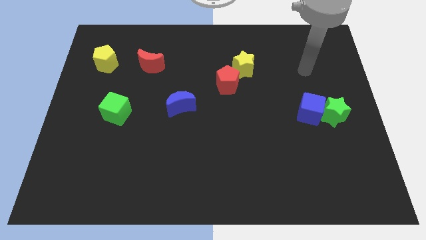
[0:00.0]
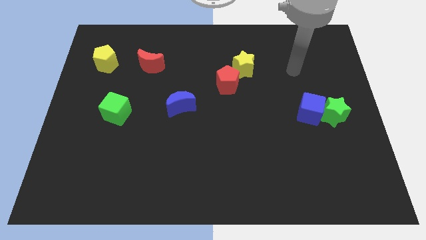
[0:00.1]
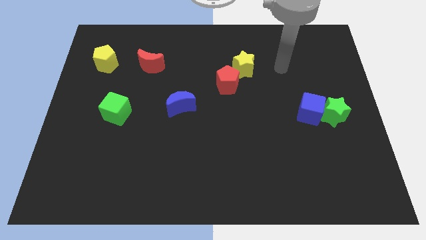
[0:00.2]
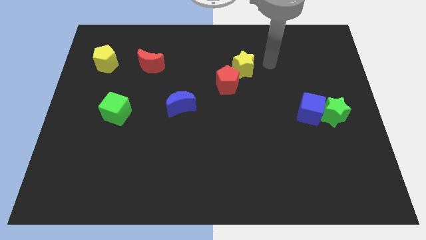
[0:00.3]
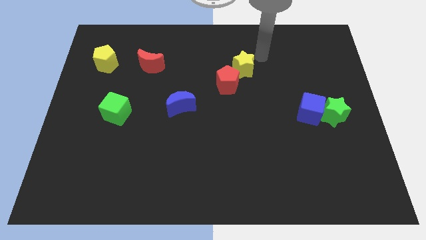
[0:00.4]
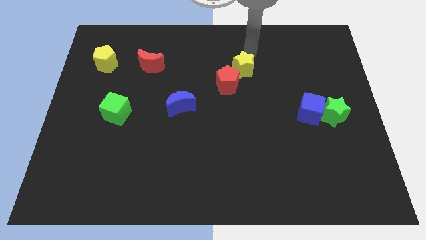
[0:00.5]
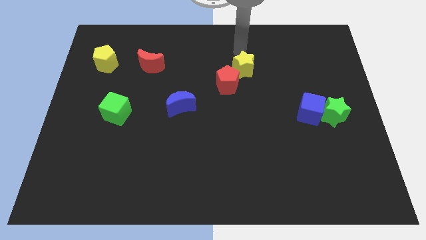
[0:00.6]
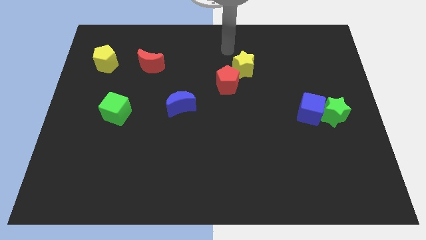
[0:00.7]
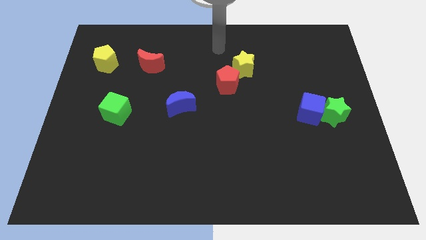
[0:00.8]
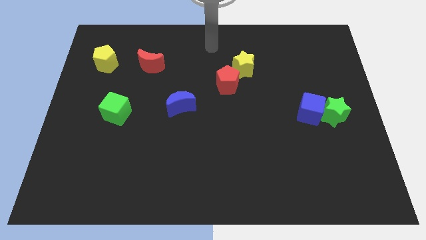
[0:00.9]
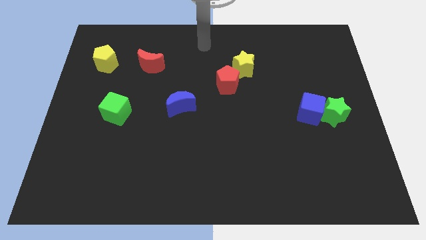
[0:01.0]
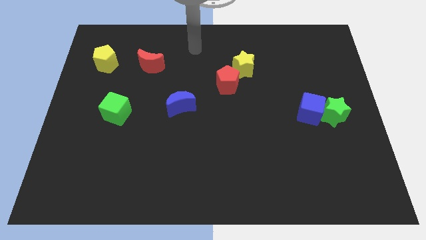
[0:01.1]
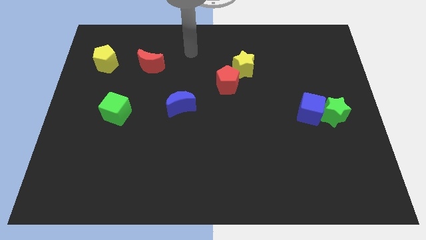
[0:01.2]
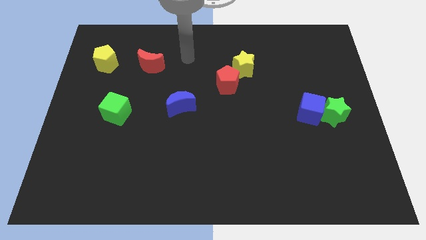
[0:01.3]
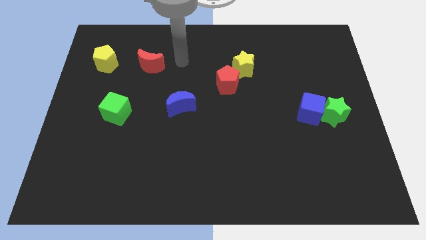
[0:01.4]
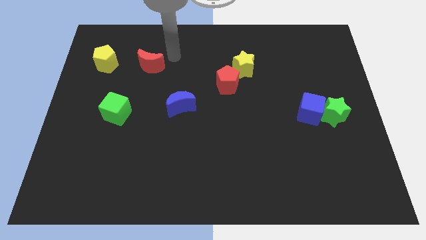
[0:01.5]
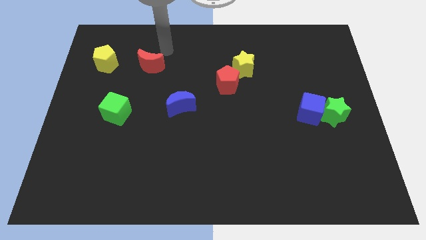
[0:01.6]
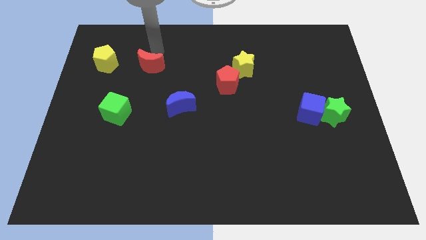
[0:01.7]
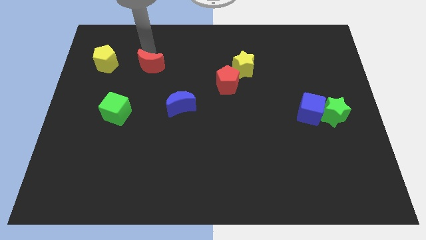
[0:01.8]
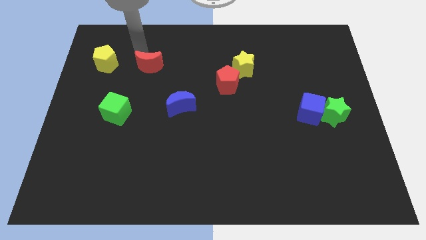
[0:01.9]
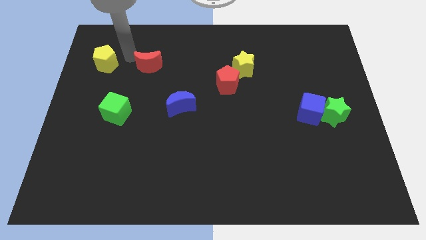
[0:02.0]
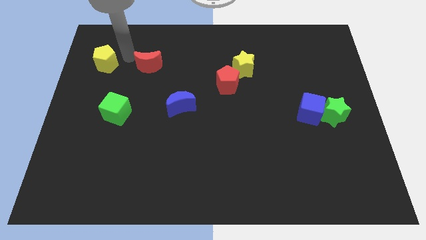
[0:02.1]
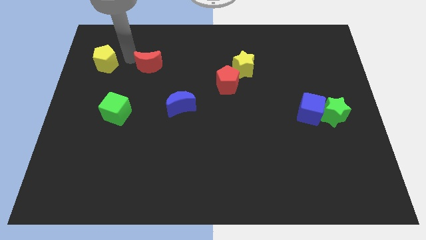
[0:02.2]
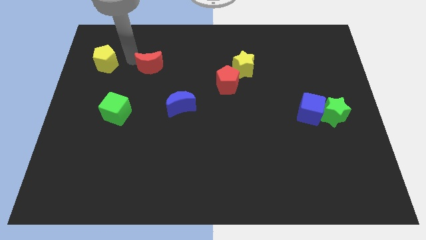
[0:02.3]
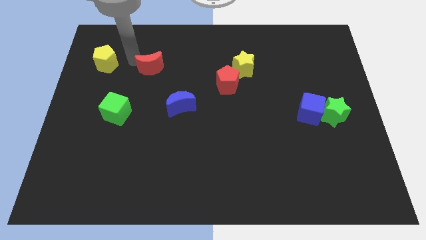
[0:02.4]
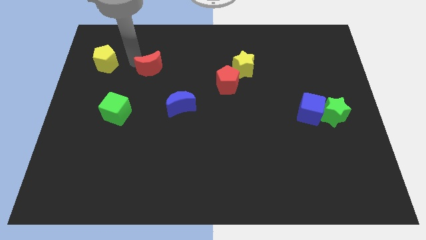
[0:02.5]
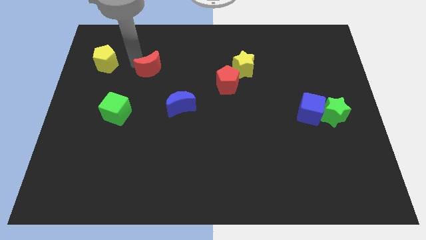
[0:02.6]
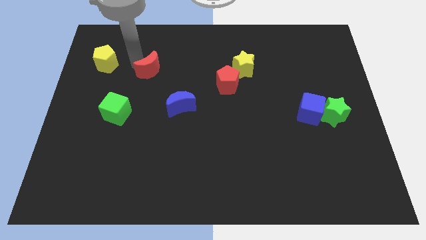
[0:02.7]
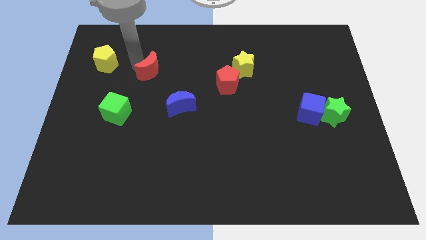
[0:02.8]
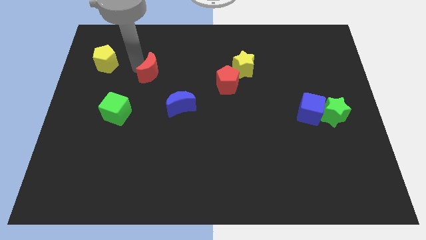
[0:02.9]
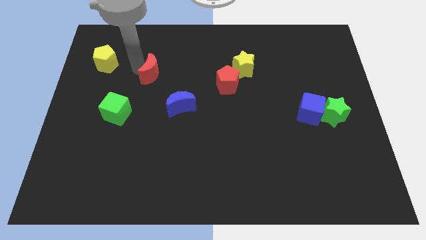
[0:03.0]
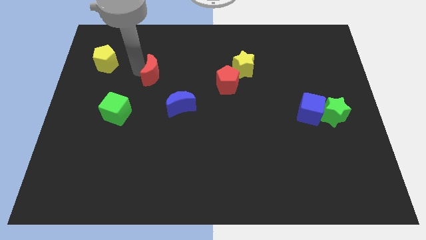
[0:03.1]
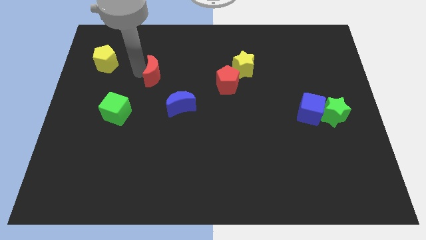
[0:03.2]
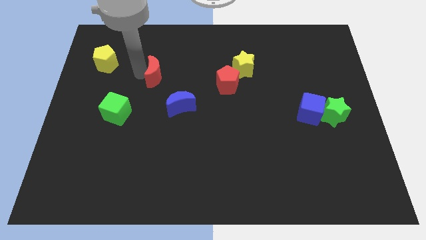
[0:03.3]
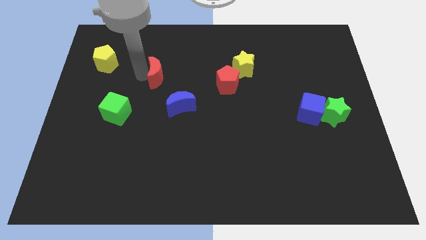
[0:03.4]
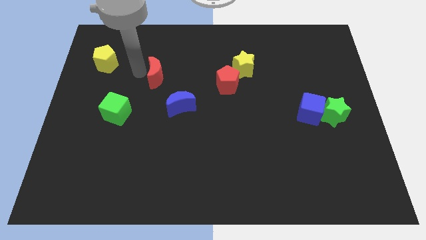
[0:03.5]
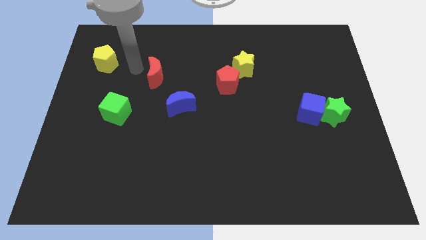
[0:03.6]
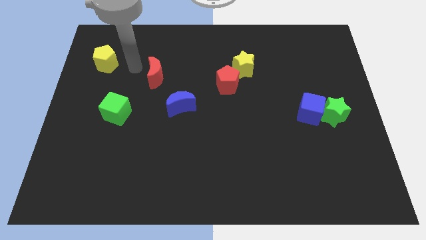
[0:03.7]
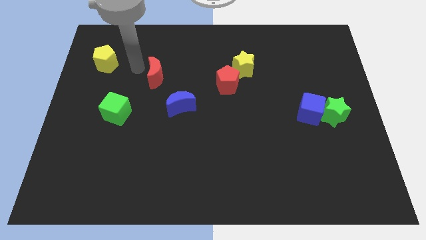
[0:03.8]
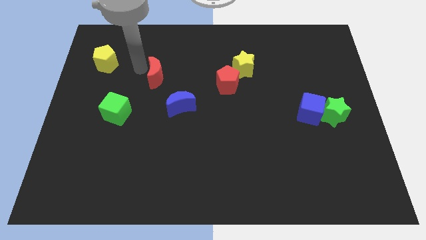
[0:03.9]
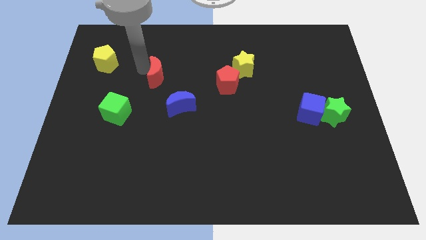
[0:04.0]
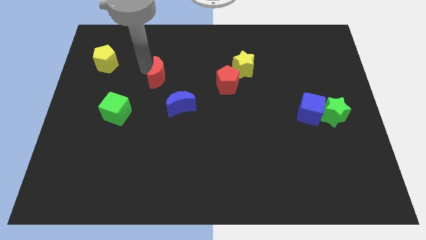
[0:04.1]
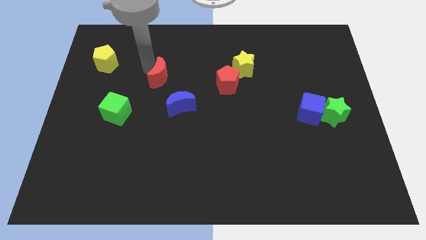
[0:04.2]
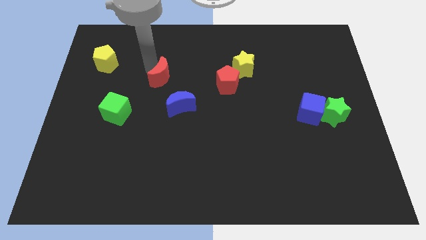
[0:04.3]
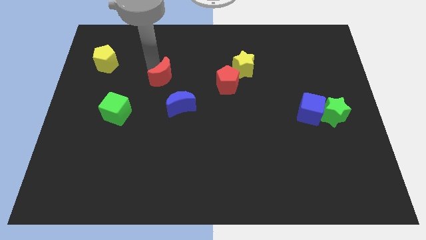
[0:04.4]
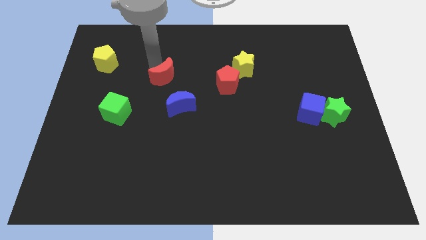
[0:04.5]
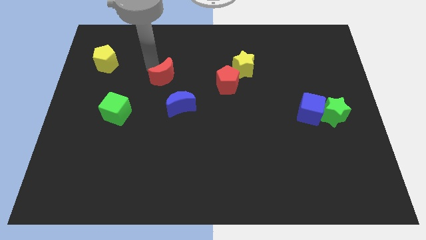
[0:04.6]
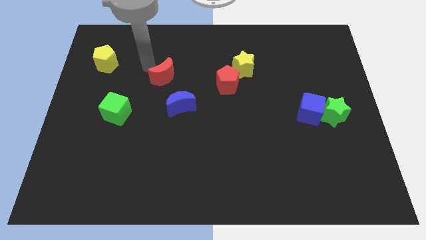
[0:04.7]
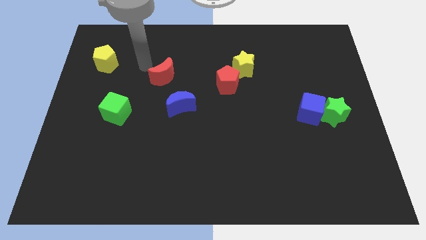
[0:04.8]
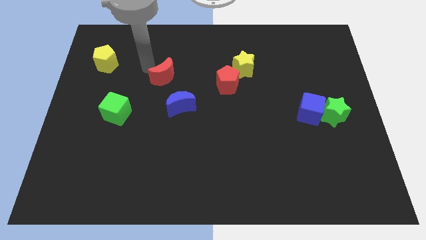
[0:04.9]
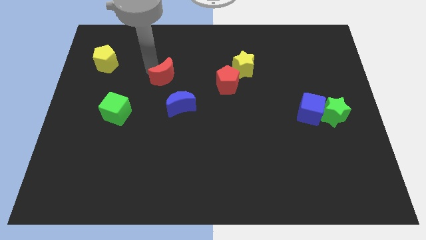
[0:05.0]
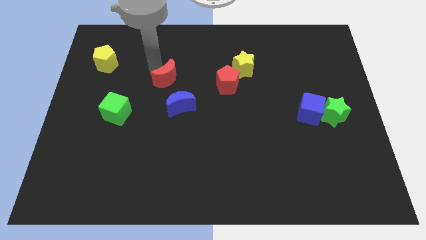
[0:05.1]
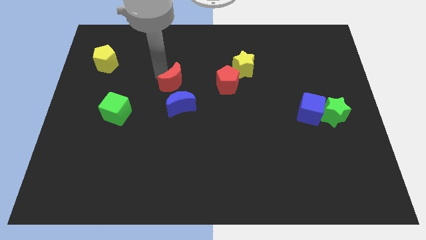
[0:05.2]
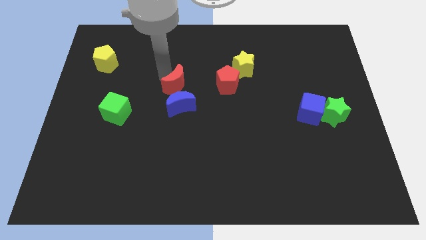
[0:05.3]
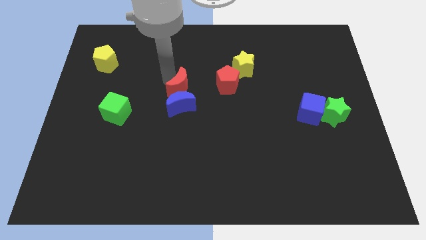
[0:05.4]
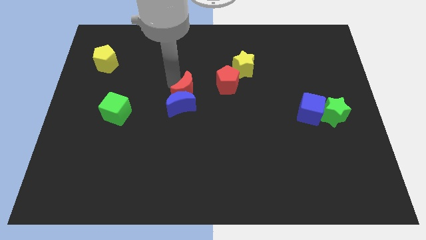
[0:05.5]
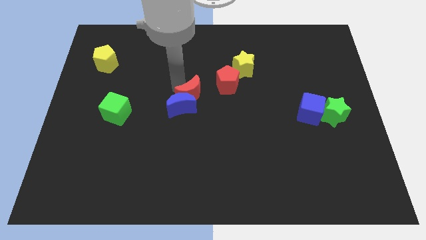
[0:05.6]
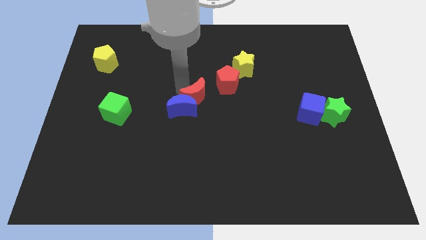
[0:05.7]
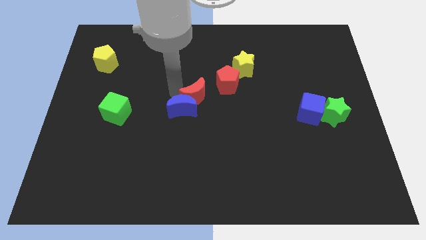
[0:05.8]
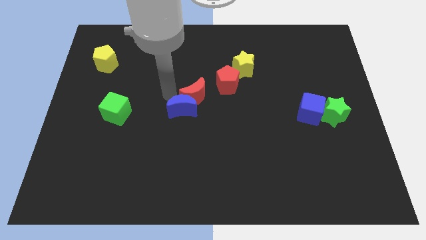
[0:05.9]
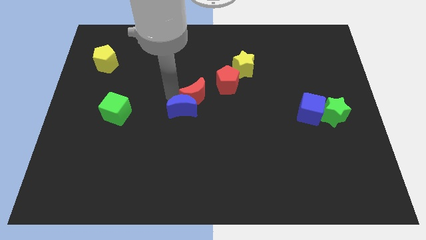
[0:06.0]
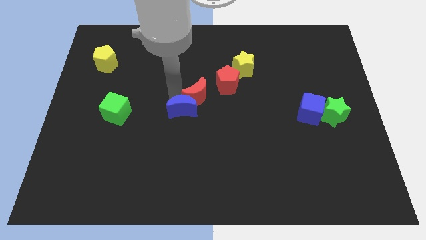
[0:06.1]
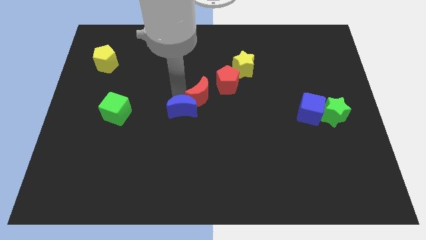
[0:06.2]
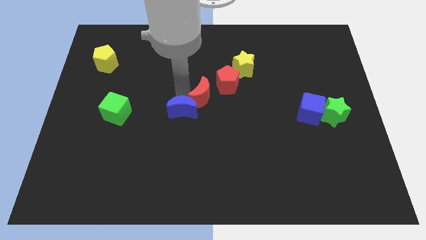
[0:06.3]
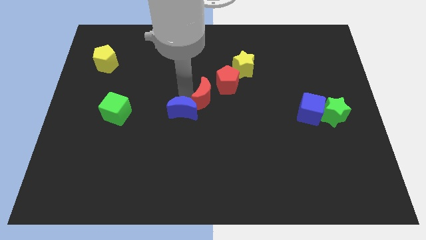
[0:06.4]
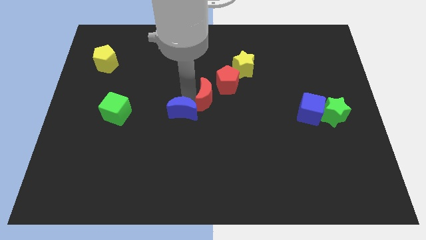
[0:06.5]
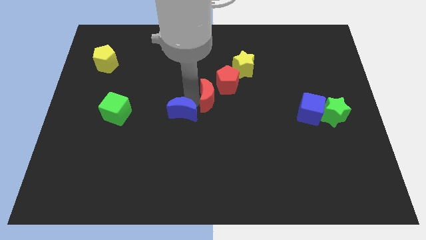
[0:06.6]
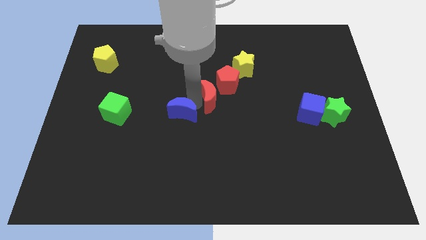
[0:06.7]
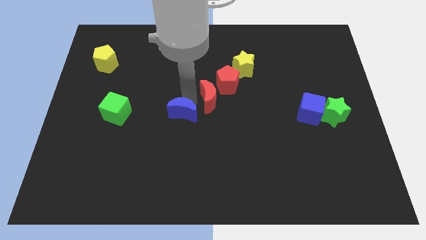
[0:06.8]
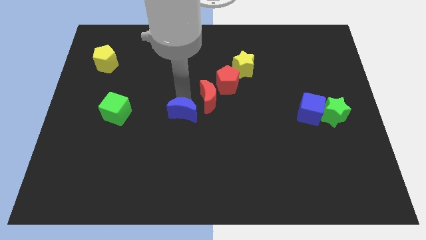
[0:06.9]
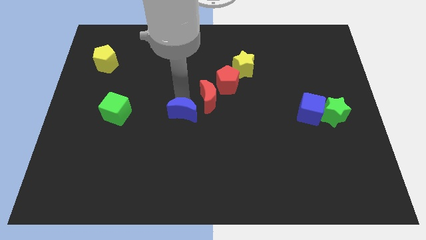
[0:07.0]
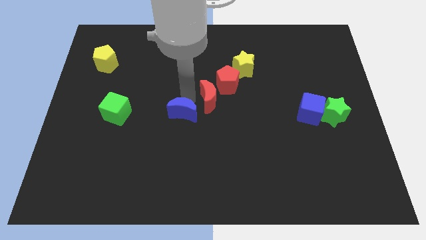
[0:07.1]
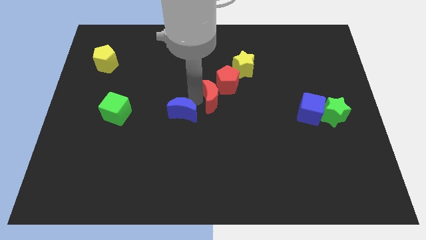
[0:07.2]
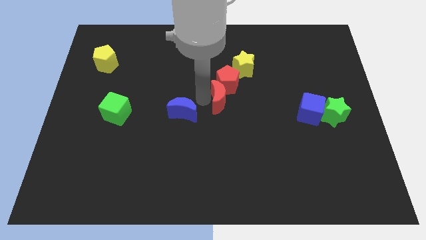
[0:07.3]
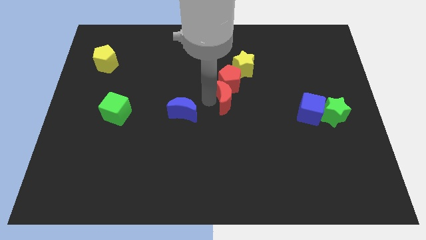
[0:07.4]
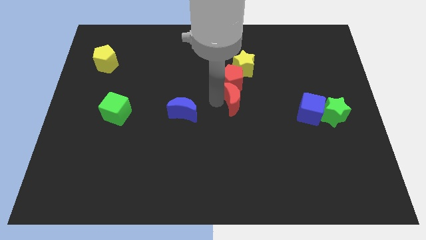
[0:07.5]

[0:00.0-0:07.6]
move the red moon below the yellow star
